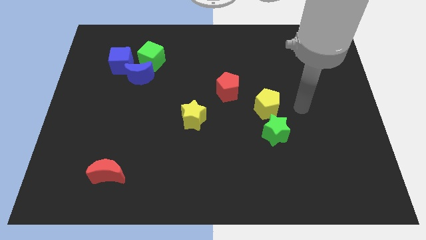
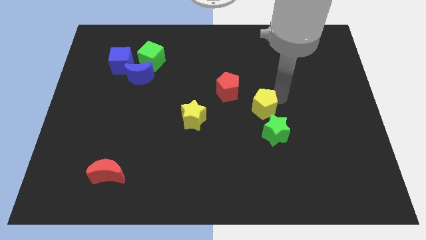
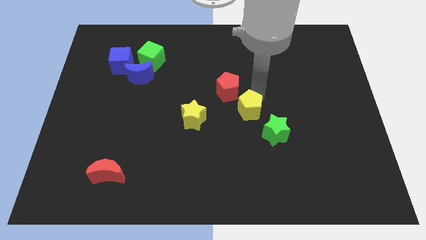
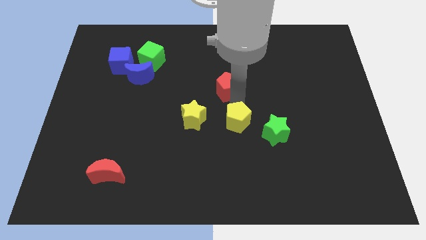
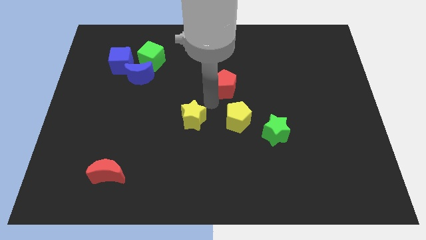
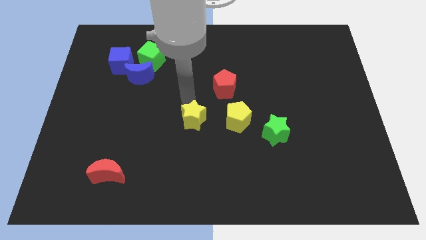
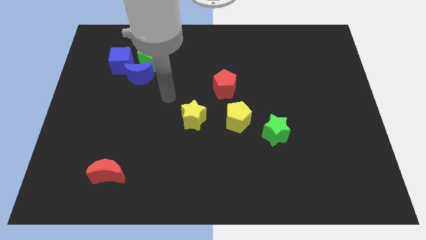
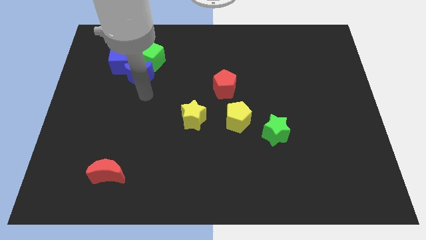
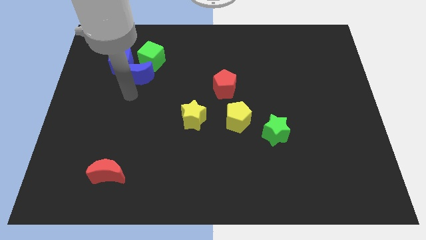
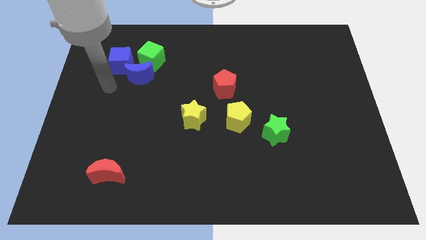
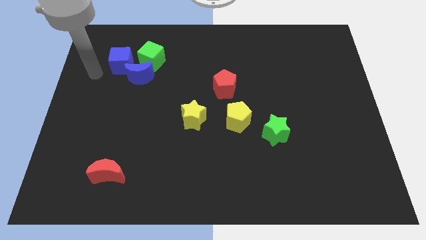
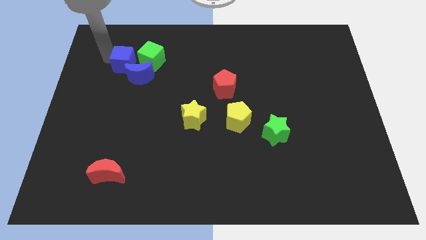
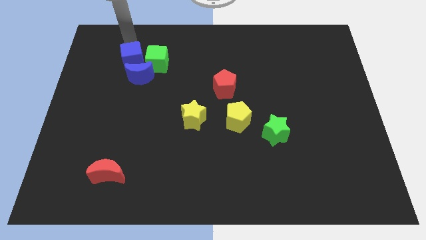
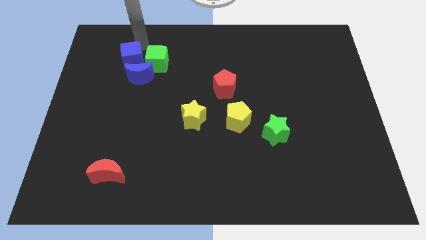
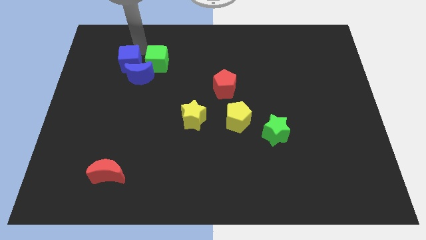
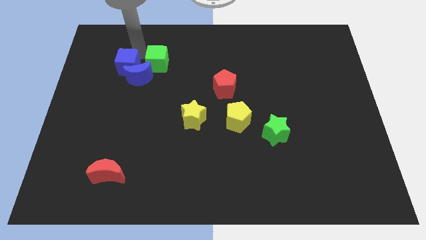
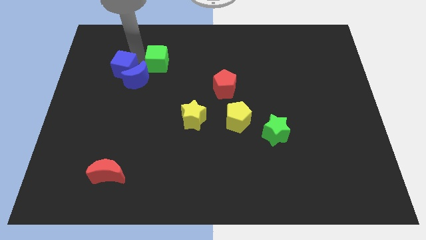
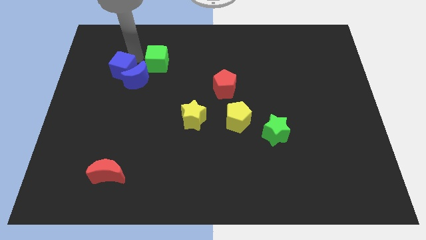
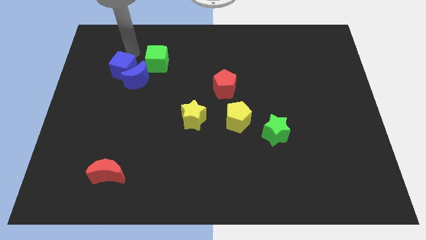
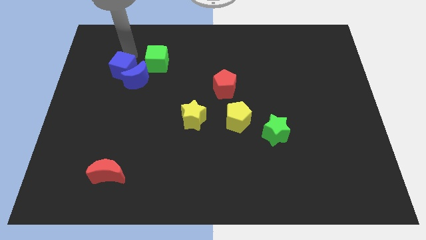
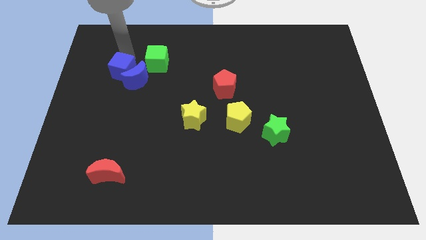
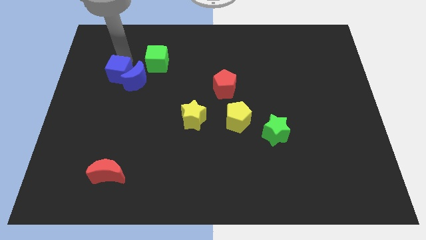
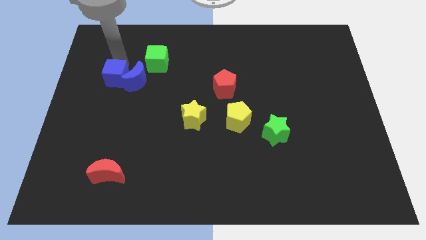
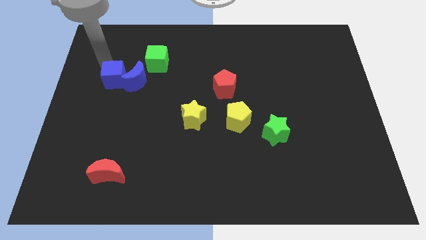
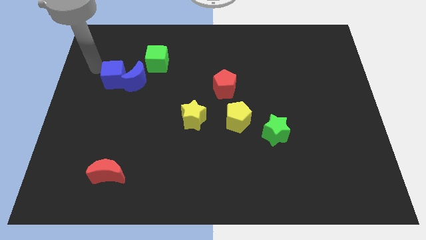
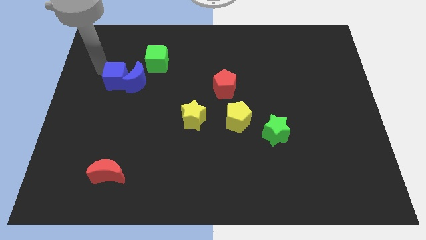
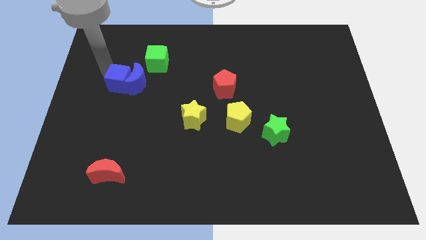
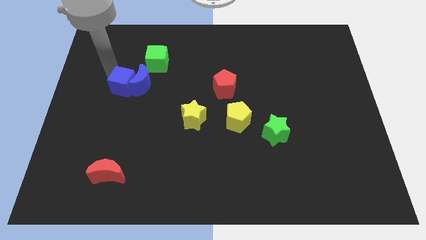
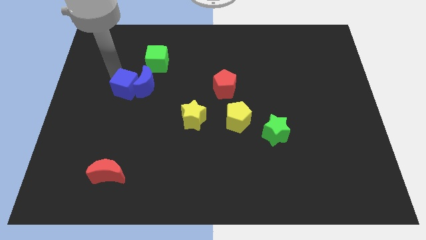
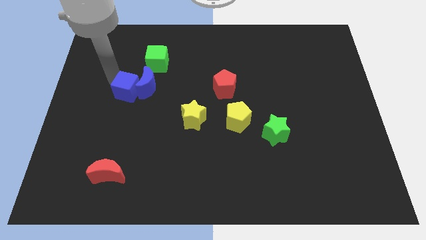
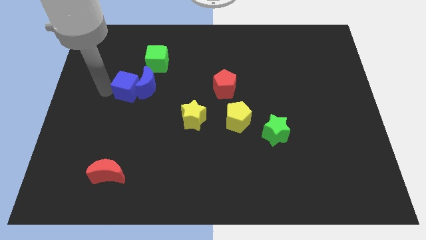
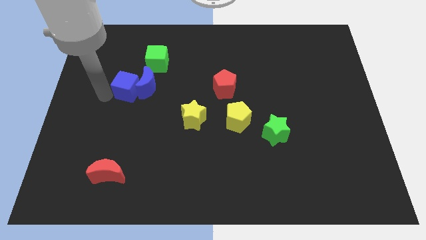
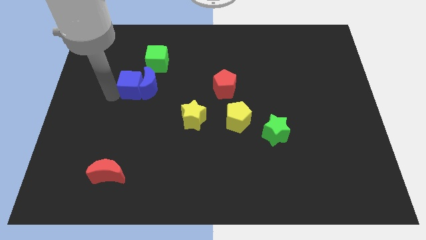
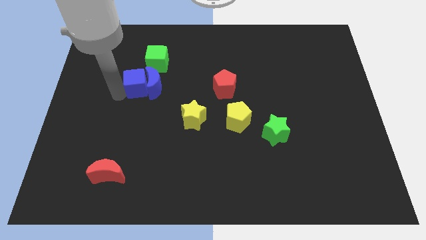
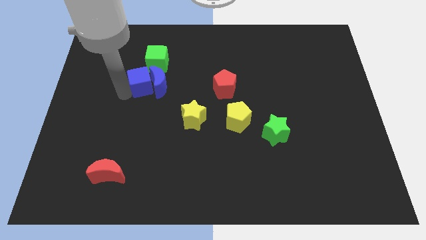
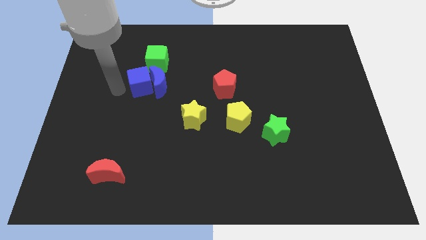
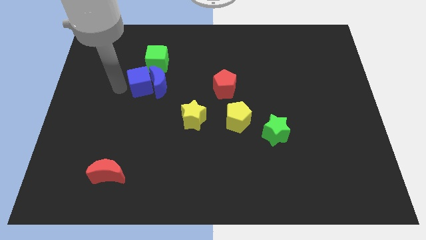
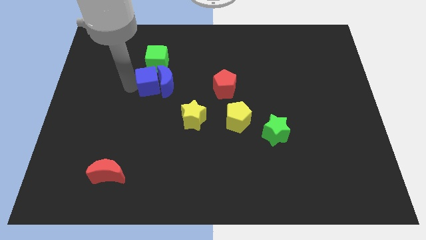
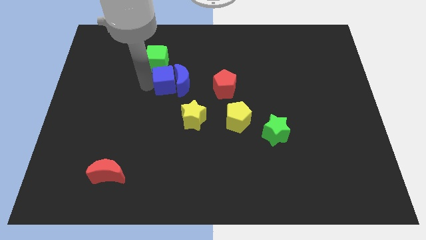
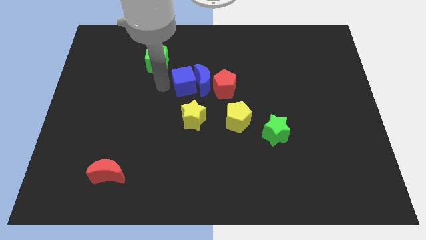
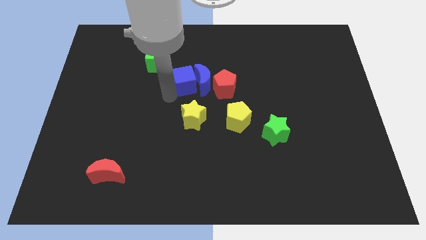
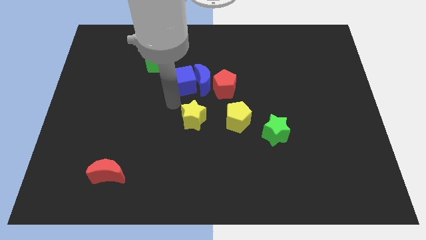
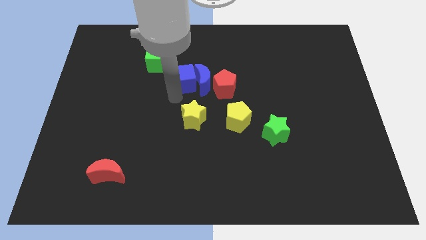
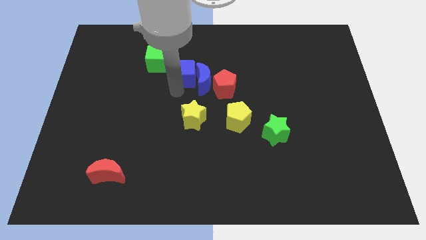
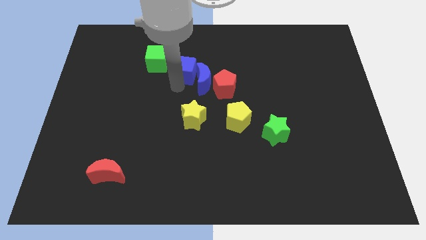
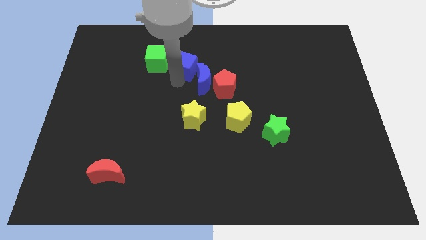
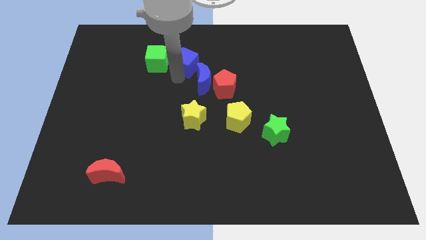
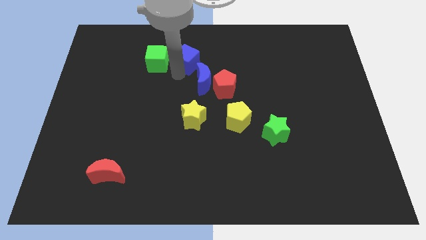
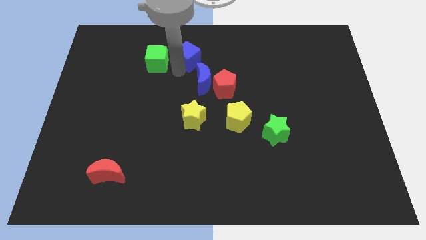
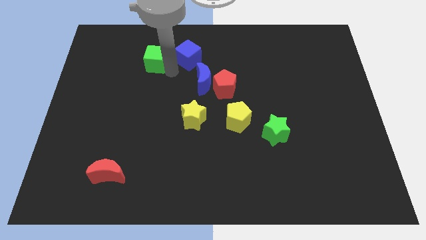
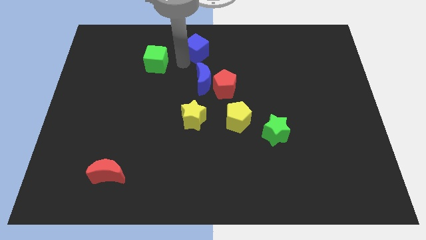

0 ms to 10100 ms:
move the blue cube to the towards your base

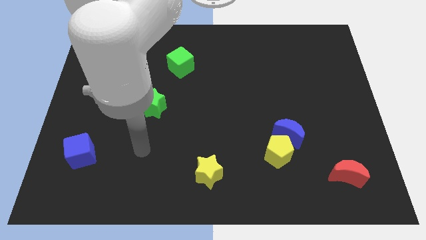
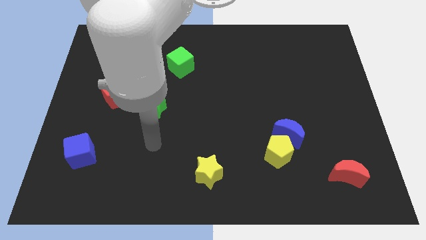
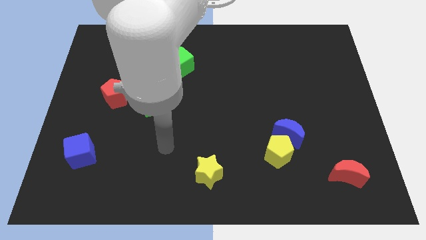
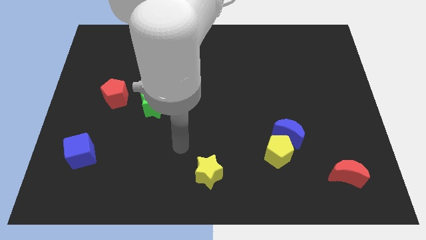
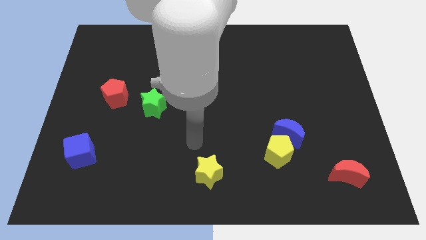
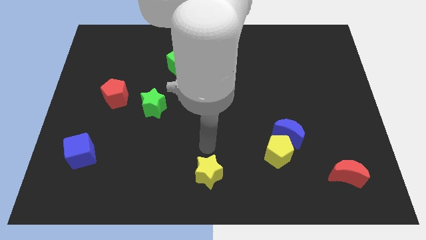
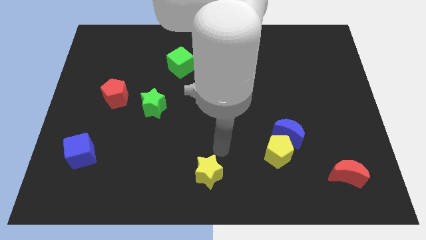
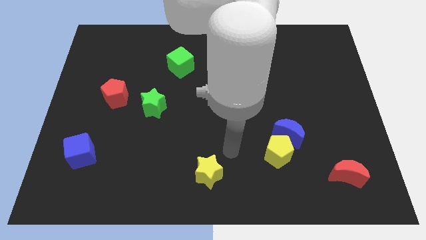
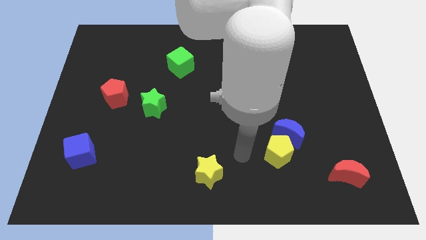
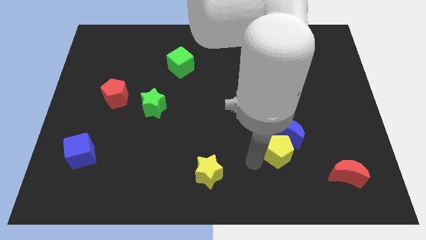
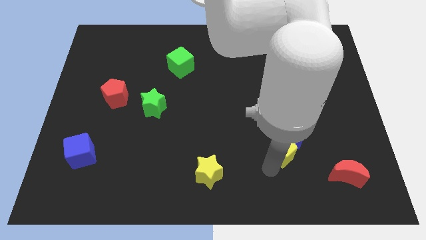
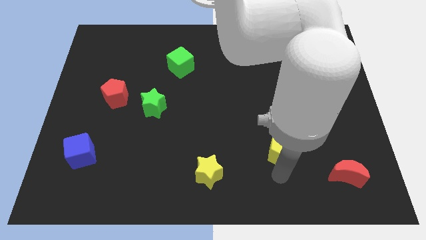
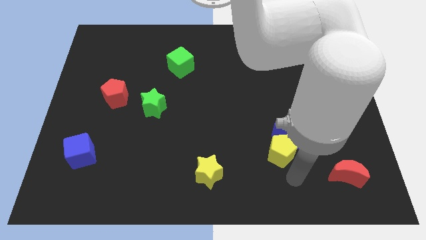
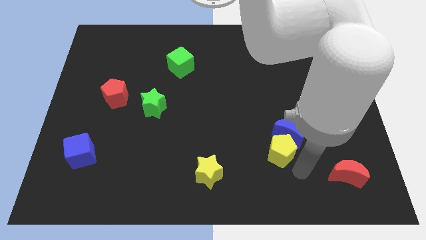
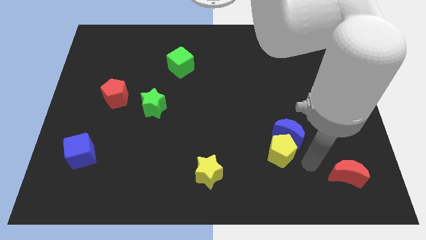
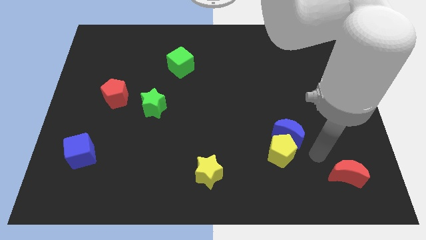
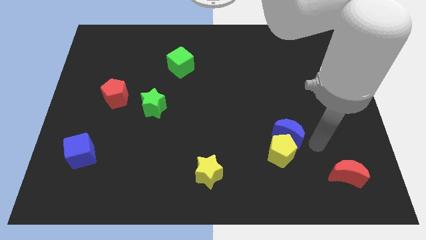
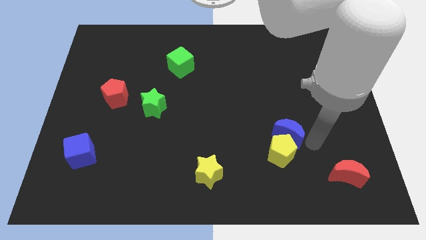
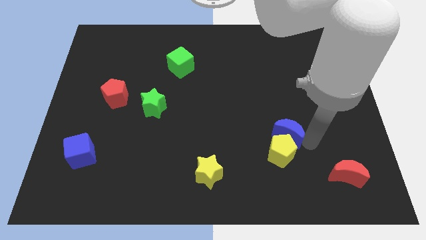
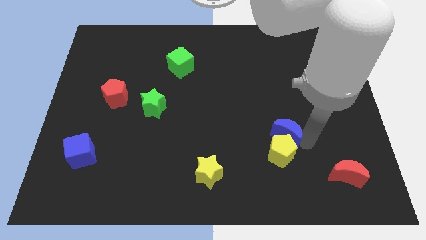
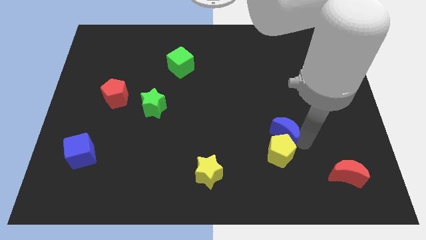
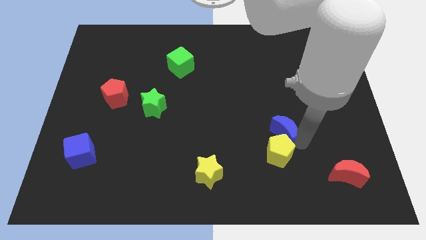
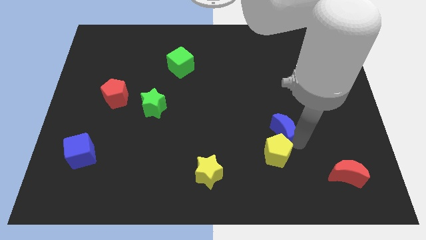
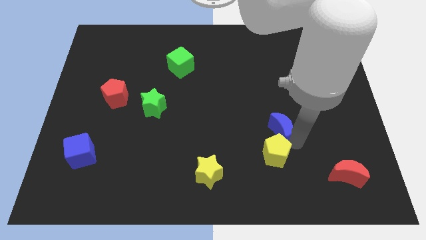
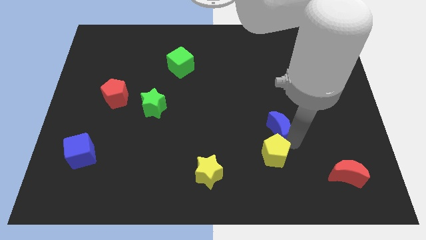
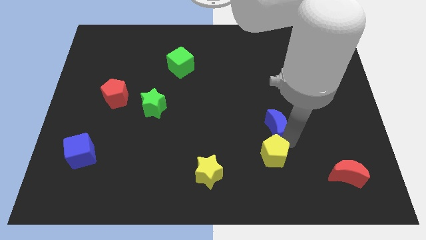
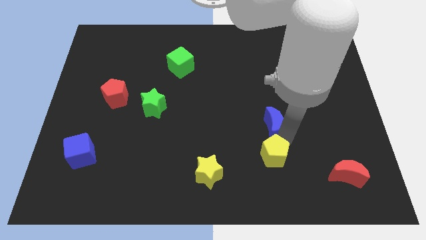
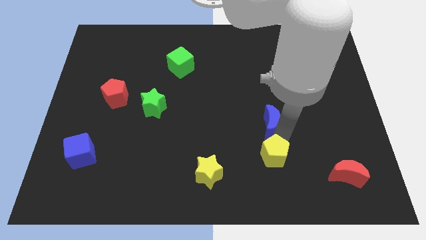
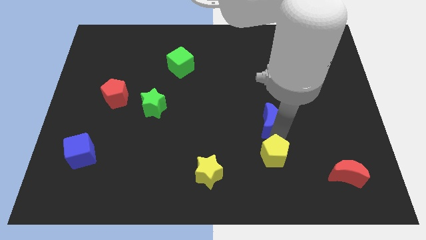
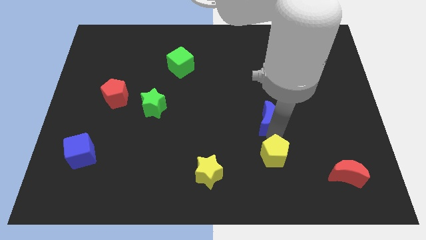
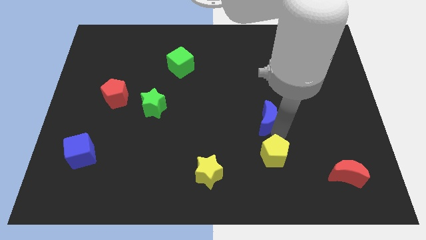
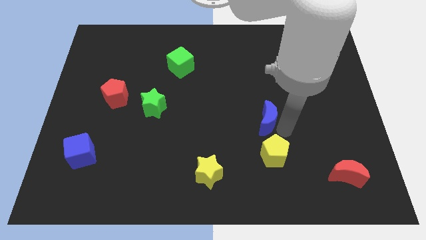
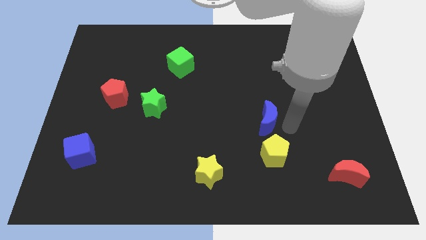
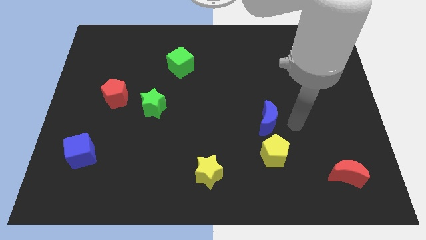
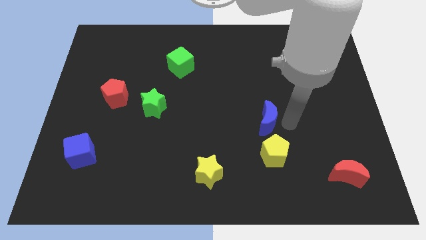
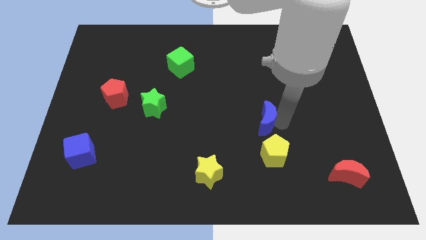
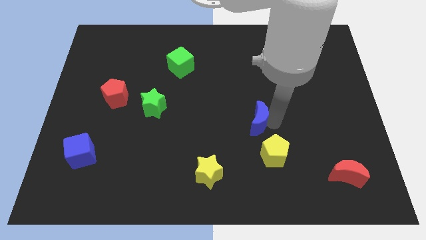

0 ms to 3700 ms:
slide the blue moon to the middle of the board
